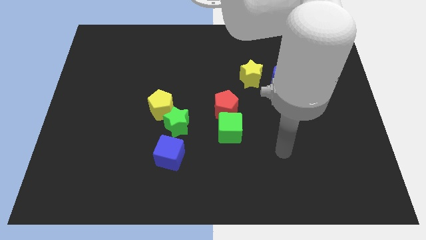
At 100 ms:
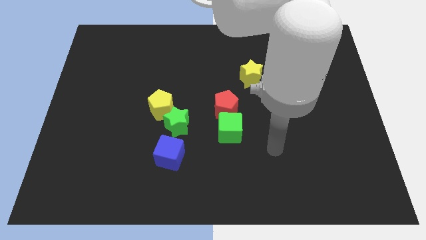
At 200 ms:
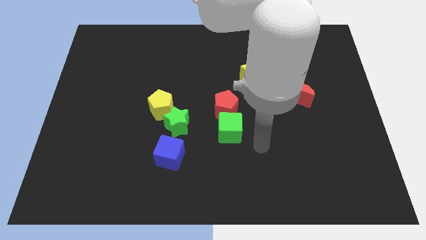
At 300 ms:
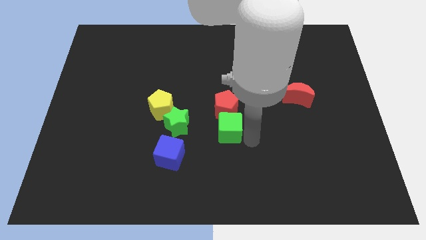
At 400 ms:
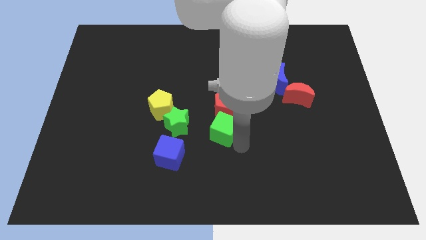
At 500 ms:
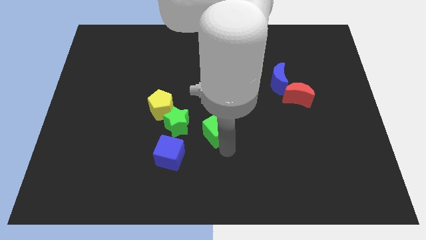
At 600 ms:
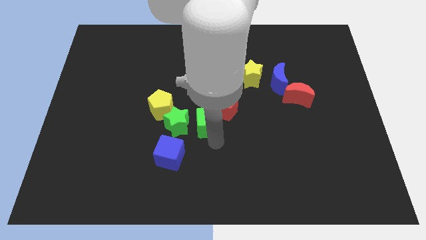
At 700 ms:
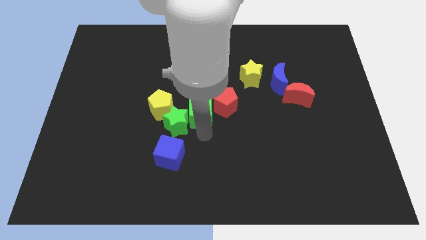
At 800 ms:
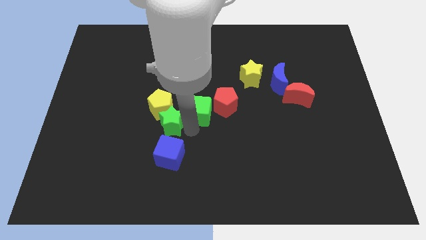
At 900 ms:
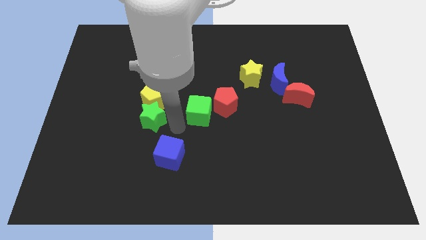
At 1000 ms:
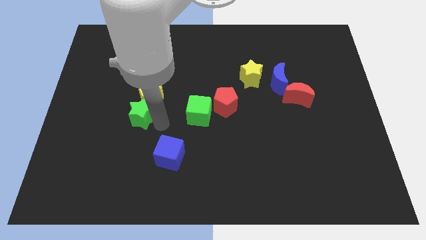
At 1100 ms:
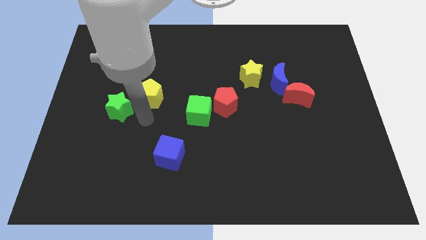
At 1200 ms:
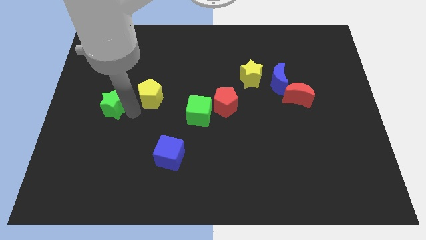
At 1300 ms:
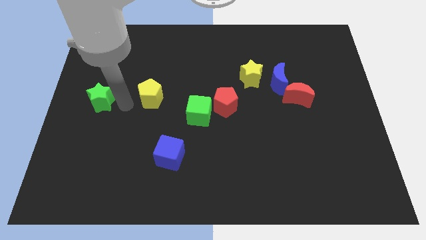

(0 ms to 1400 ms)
move the yellow pentagon away from the green star

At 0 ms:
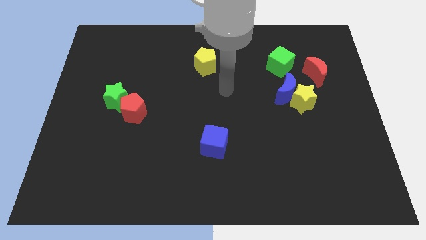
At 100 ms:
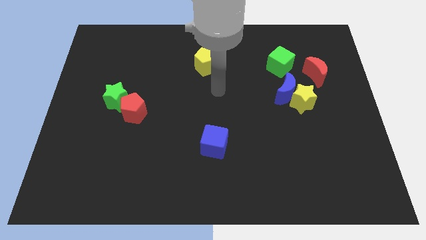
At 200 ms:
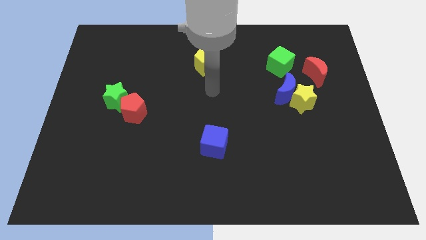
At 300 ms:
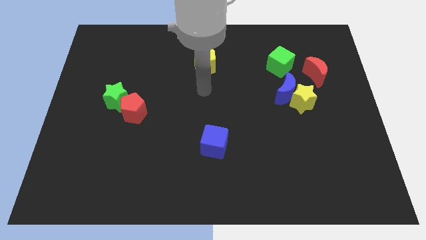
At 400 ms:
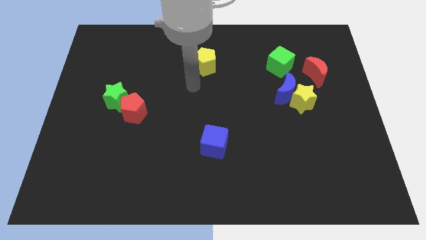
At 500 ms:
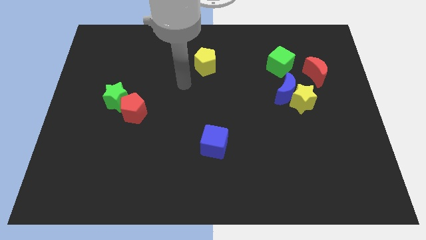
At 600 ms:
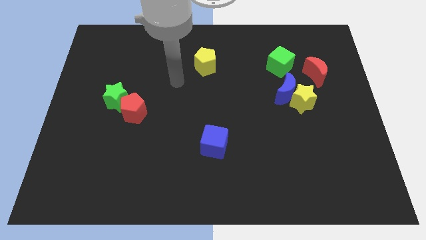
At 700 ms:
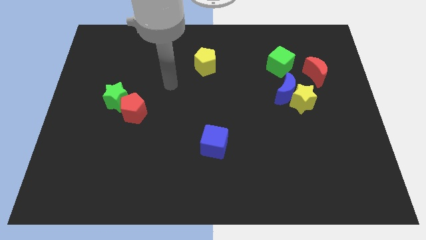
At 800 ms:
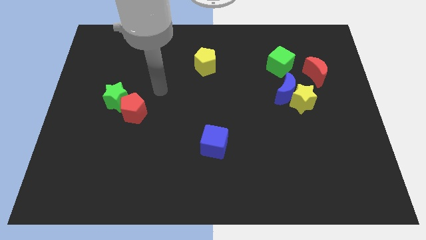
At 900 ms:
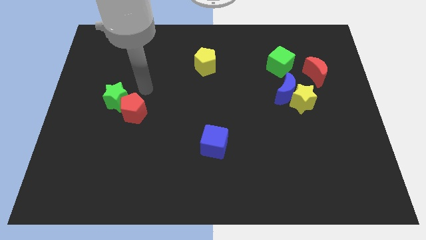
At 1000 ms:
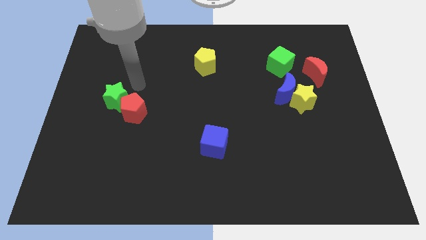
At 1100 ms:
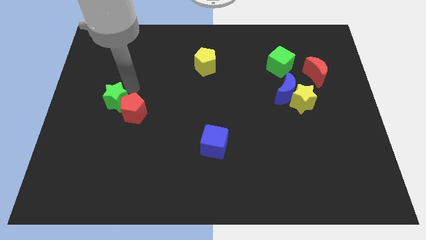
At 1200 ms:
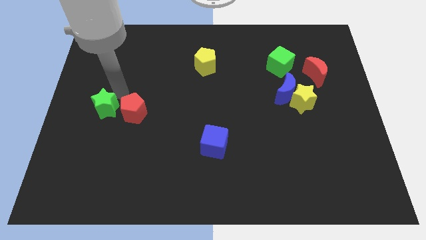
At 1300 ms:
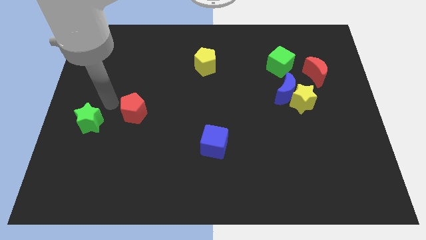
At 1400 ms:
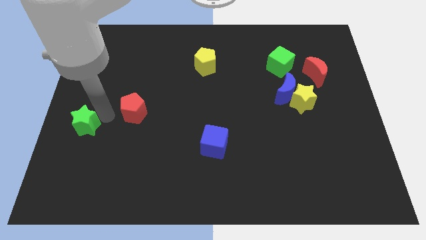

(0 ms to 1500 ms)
move the red pentagon away from the green star

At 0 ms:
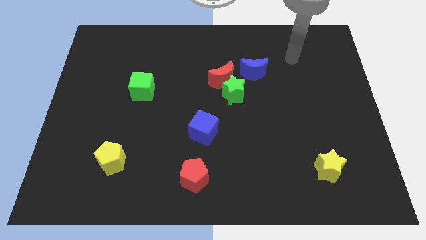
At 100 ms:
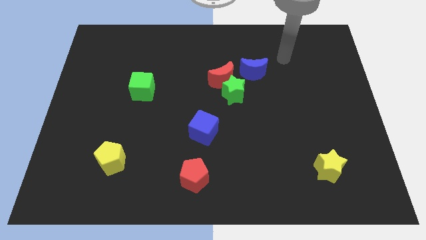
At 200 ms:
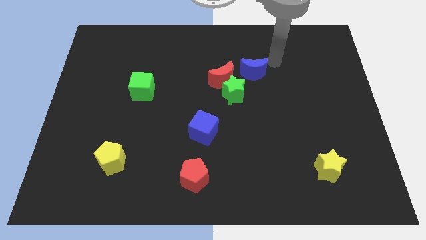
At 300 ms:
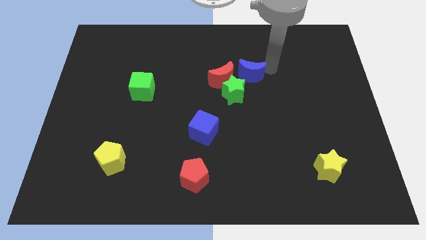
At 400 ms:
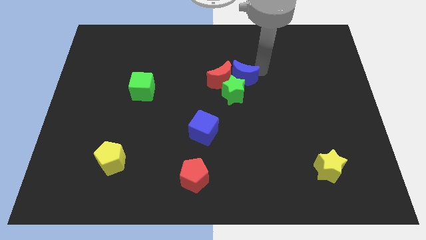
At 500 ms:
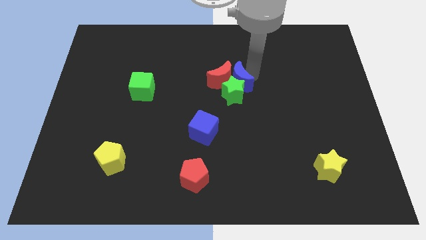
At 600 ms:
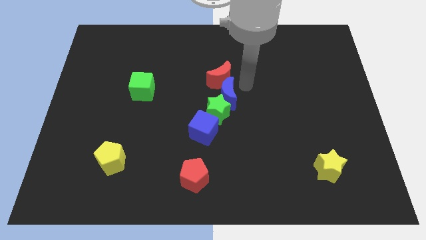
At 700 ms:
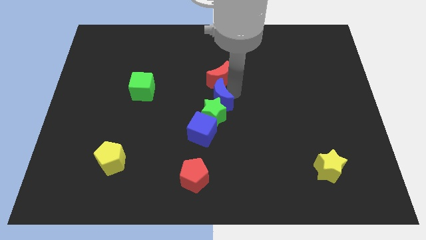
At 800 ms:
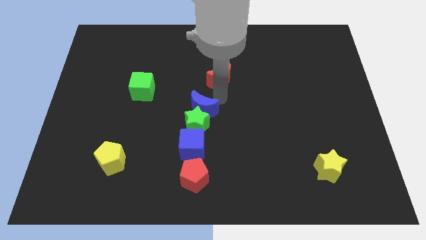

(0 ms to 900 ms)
separate the red moon from the green star and blue moon

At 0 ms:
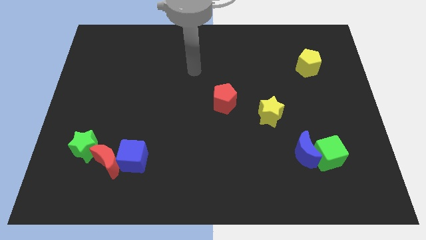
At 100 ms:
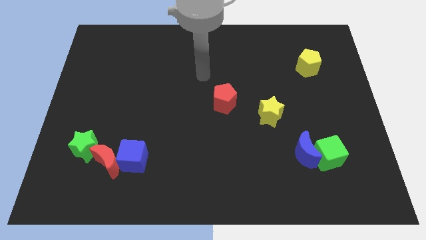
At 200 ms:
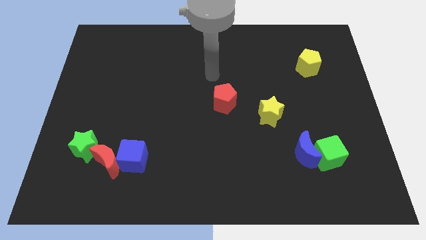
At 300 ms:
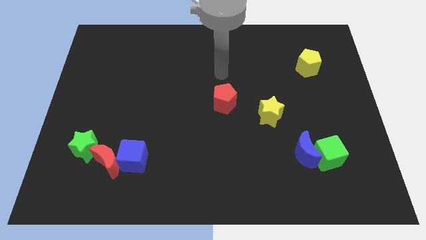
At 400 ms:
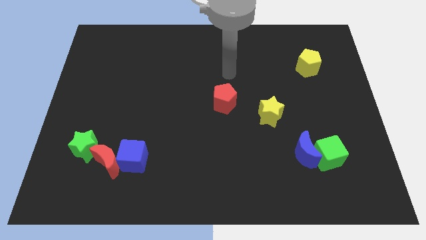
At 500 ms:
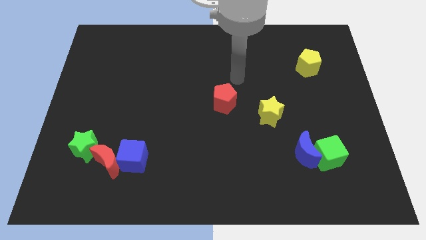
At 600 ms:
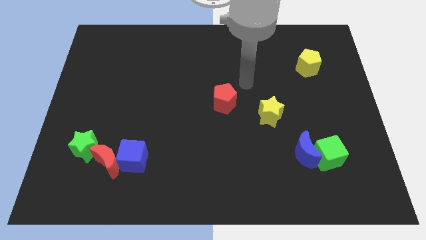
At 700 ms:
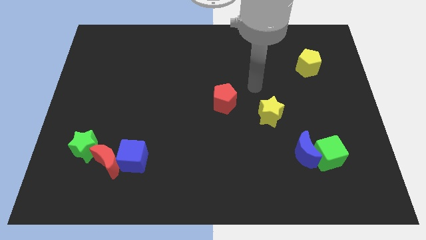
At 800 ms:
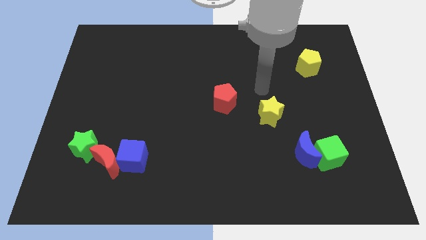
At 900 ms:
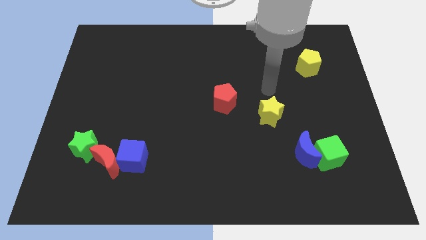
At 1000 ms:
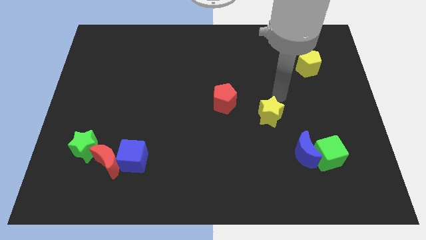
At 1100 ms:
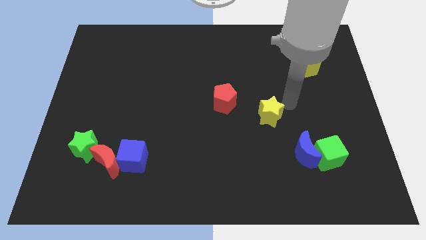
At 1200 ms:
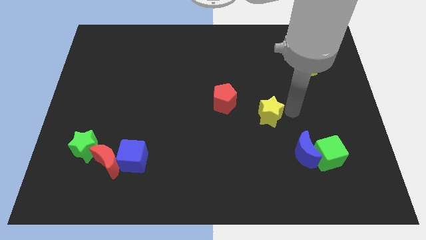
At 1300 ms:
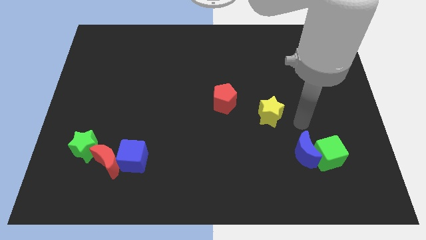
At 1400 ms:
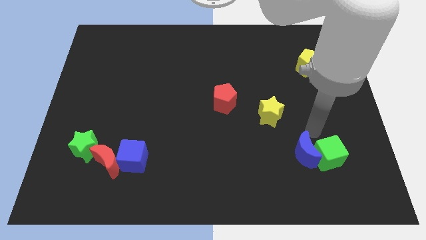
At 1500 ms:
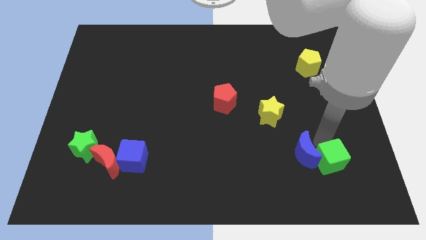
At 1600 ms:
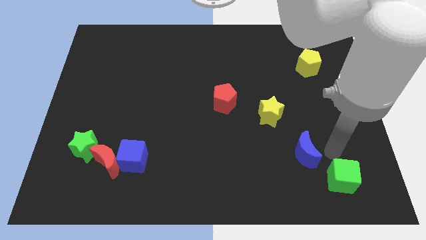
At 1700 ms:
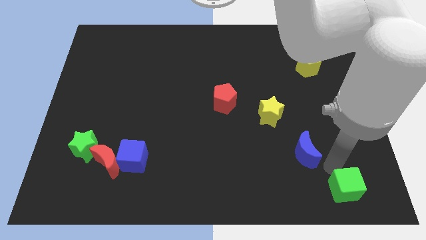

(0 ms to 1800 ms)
separate the blue moon from the green cube

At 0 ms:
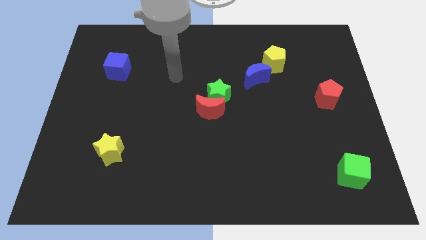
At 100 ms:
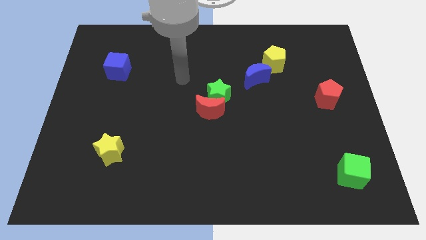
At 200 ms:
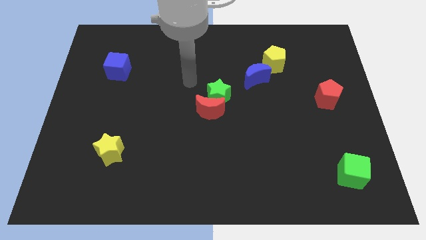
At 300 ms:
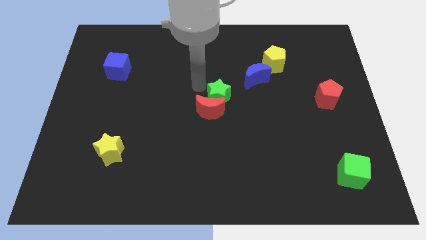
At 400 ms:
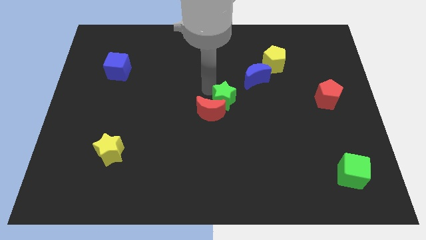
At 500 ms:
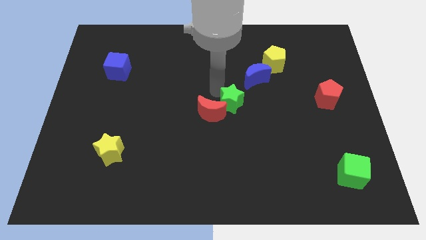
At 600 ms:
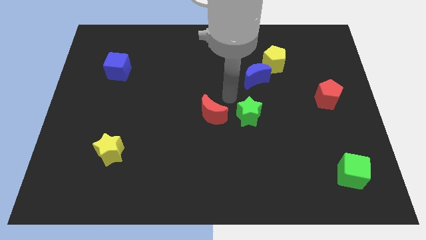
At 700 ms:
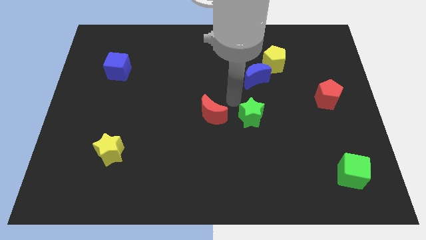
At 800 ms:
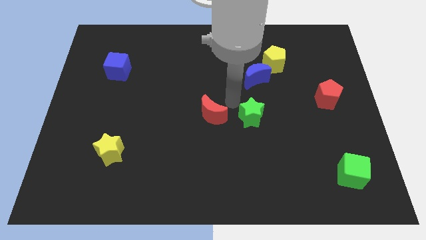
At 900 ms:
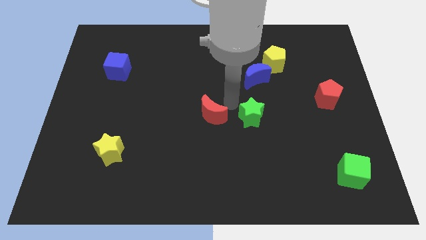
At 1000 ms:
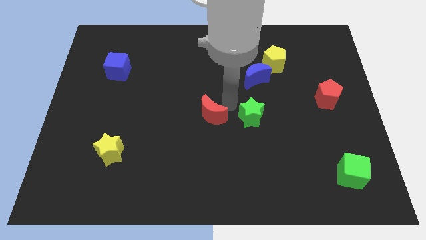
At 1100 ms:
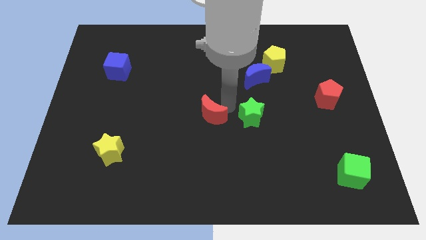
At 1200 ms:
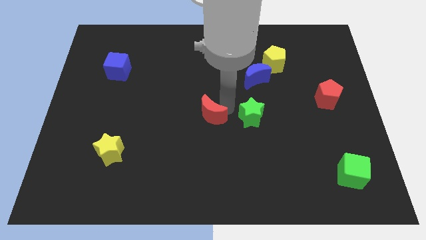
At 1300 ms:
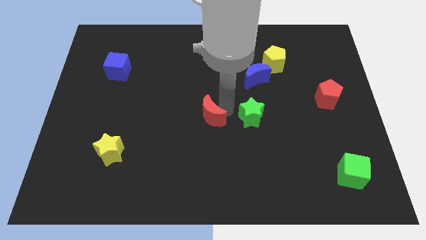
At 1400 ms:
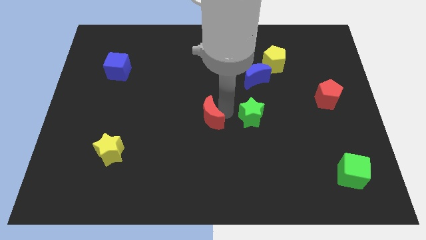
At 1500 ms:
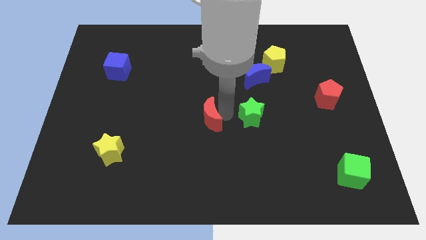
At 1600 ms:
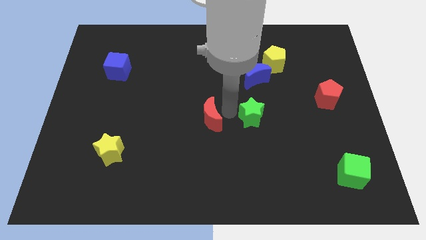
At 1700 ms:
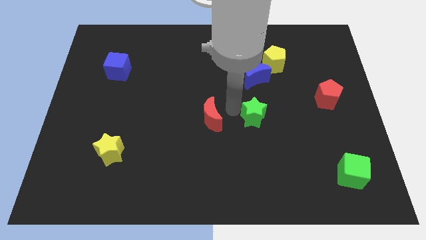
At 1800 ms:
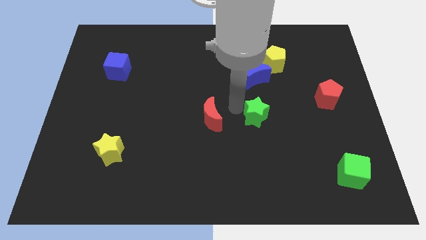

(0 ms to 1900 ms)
pull the red moon apart from the green star

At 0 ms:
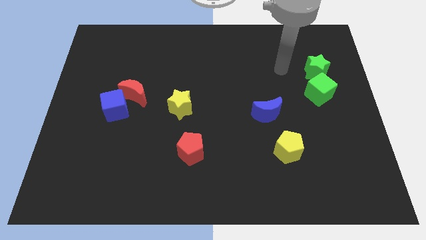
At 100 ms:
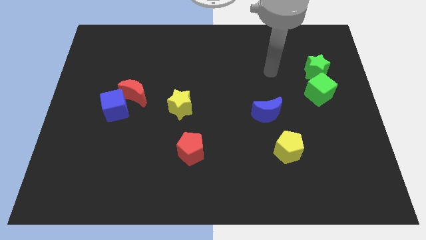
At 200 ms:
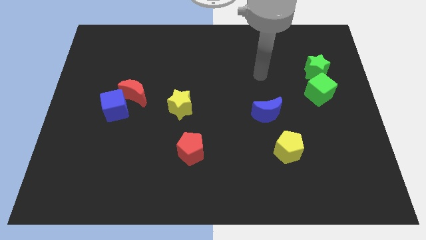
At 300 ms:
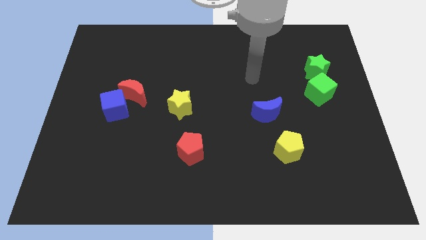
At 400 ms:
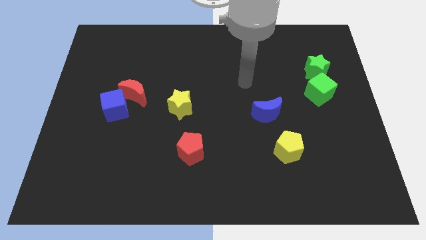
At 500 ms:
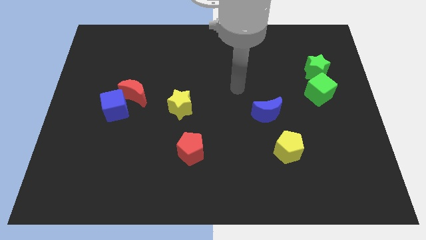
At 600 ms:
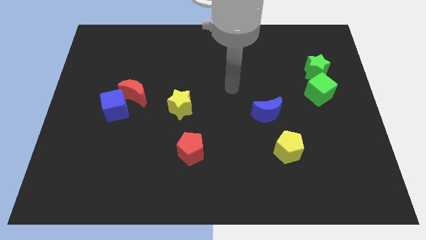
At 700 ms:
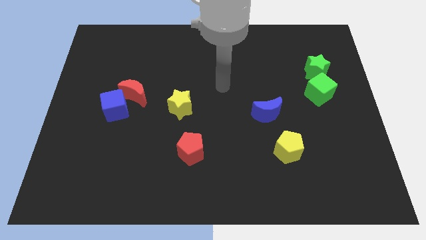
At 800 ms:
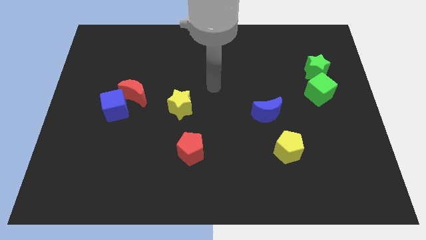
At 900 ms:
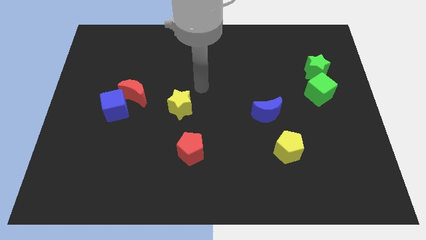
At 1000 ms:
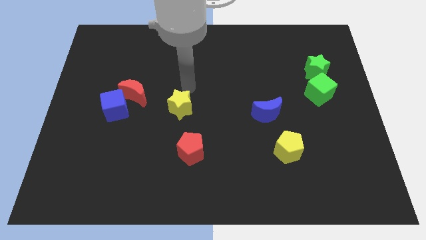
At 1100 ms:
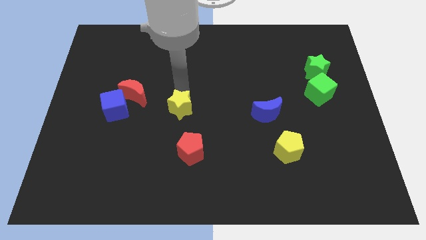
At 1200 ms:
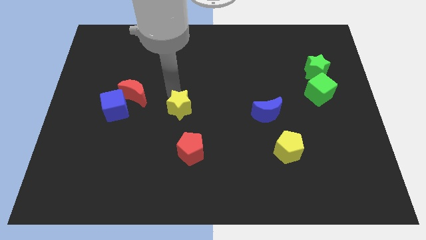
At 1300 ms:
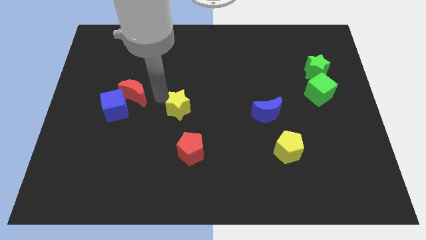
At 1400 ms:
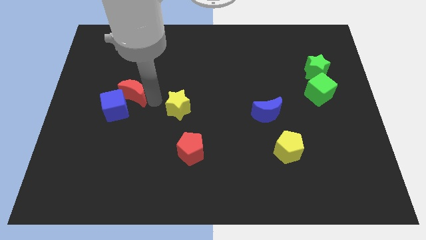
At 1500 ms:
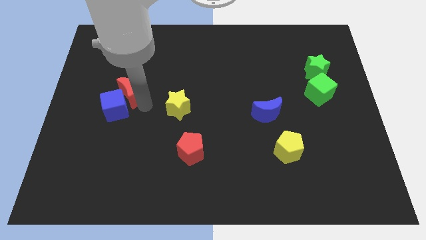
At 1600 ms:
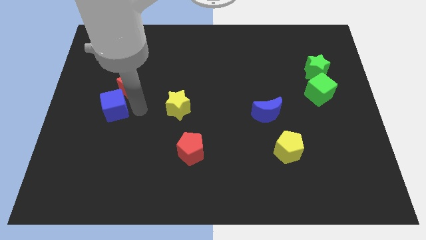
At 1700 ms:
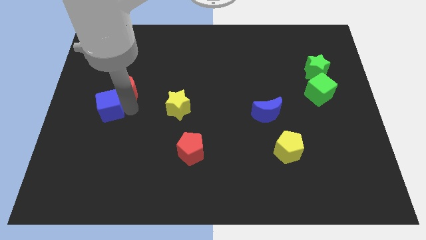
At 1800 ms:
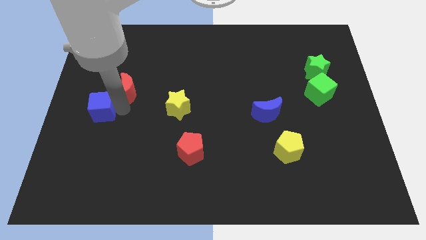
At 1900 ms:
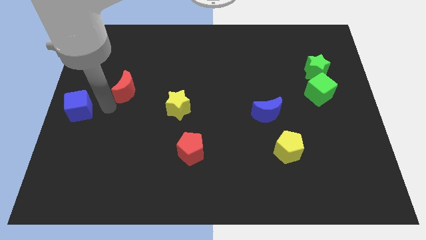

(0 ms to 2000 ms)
pull the red moon apart from the blue cube
